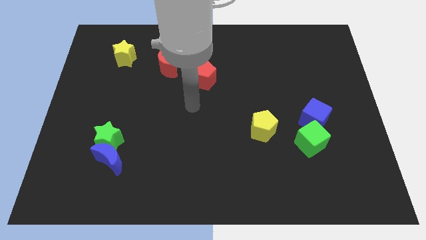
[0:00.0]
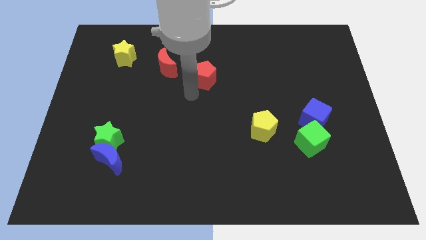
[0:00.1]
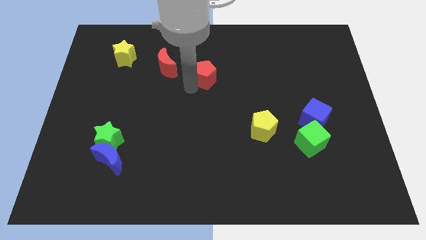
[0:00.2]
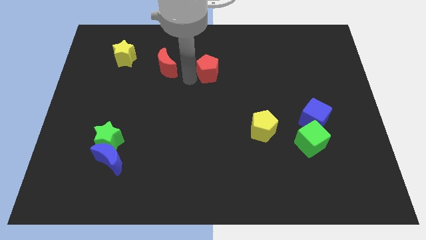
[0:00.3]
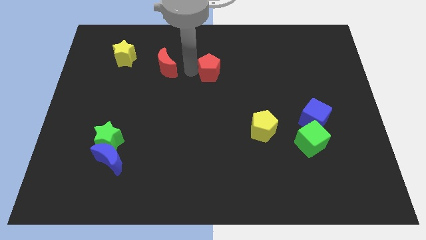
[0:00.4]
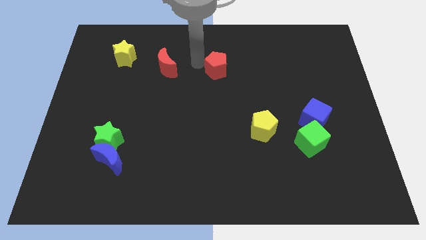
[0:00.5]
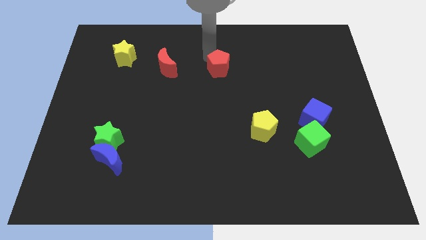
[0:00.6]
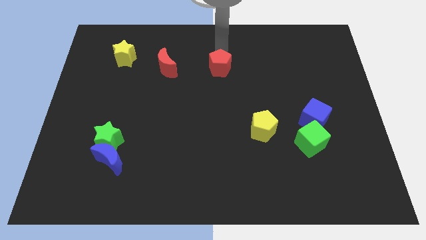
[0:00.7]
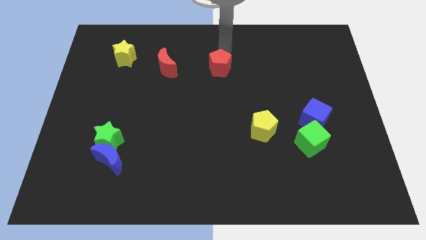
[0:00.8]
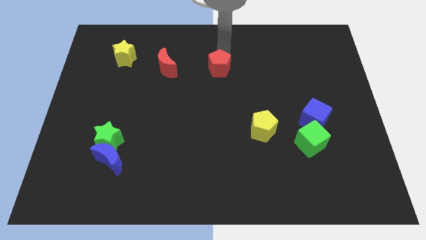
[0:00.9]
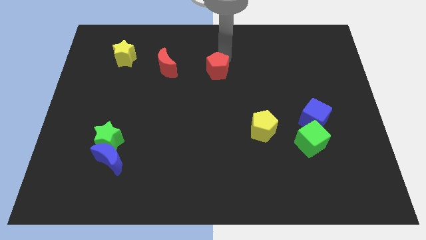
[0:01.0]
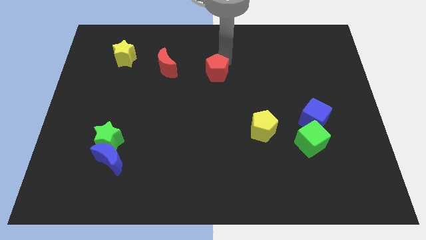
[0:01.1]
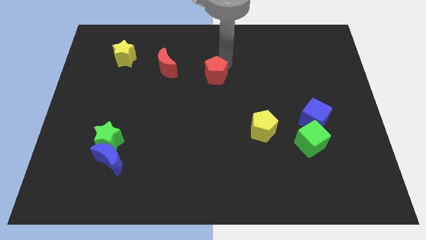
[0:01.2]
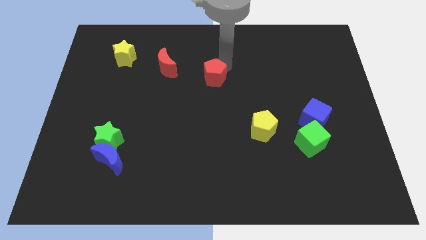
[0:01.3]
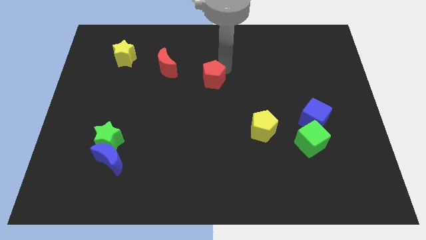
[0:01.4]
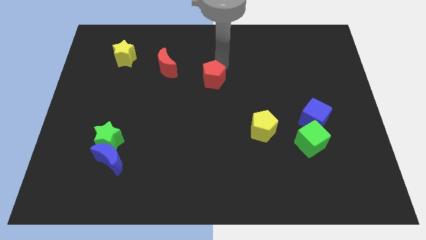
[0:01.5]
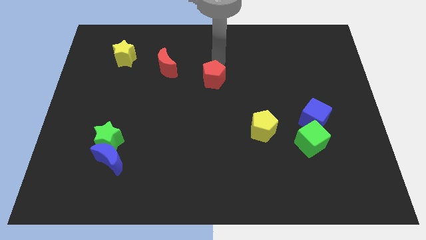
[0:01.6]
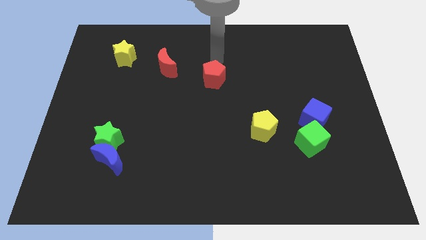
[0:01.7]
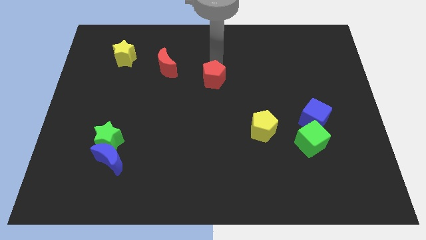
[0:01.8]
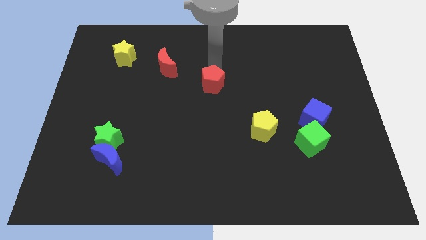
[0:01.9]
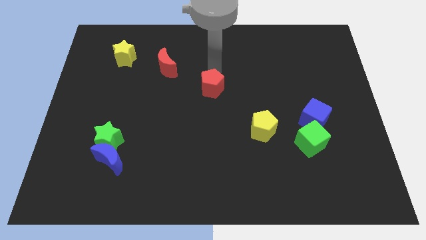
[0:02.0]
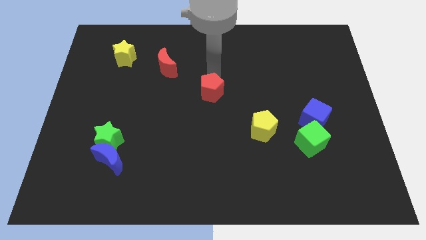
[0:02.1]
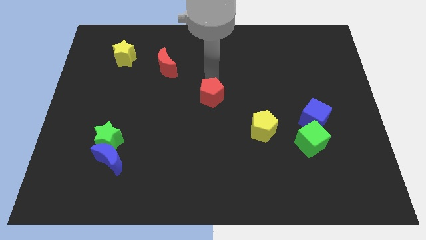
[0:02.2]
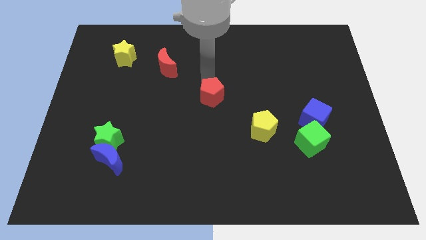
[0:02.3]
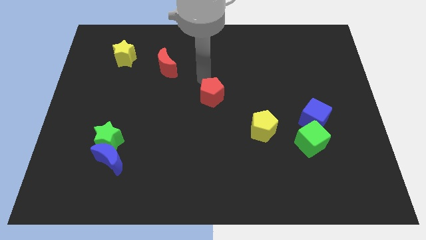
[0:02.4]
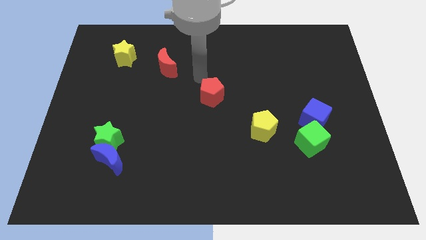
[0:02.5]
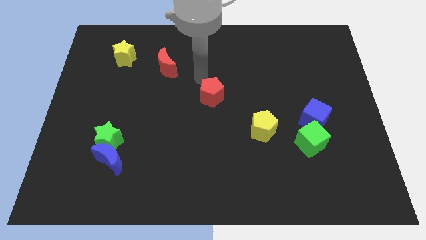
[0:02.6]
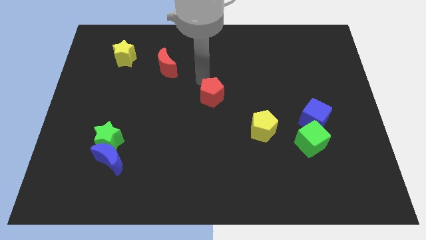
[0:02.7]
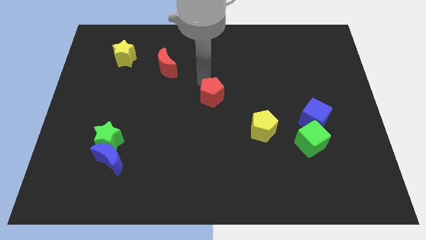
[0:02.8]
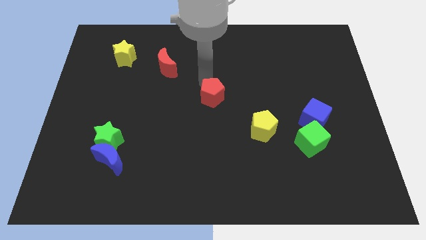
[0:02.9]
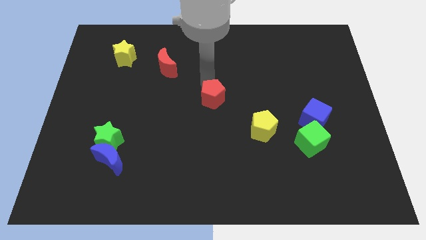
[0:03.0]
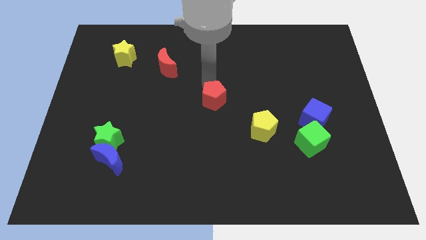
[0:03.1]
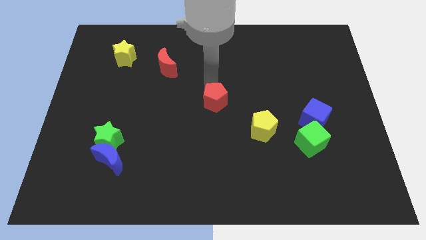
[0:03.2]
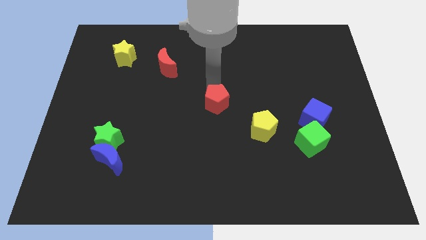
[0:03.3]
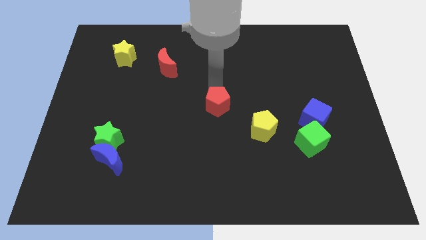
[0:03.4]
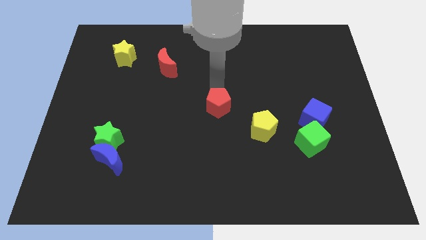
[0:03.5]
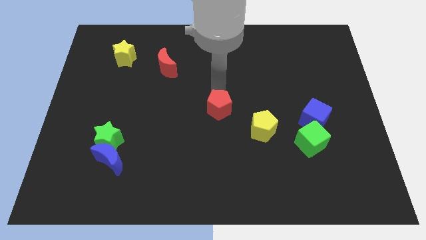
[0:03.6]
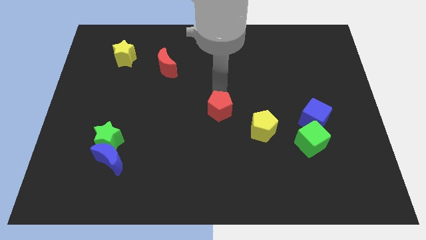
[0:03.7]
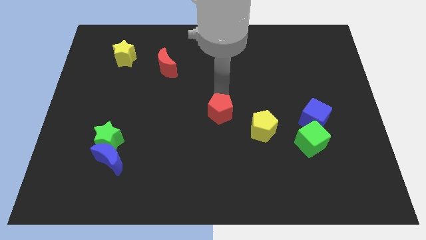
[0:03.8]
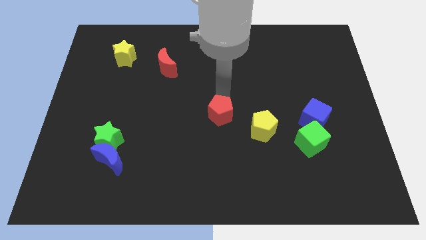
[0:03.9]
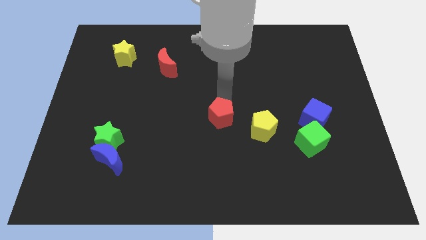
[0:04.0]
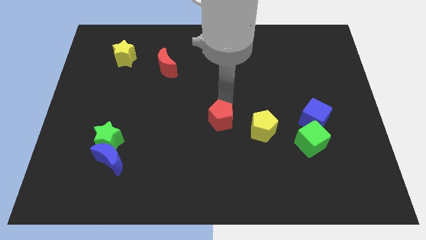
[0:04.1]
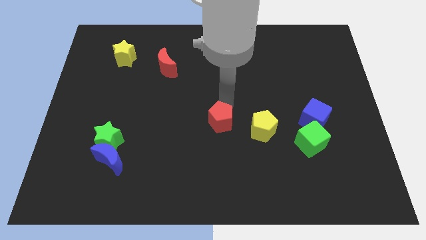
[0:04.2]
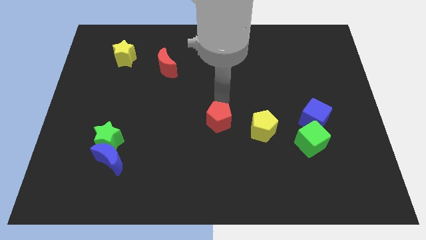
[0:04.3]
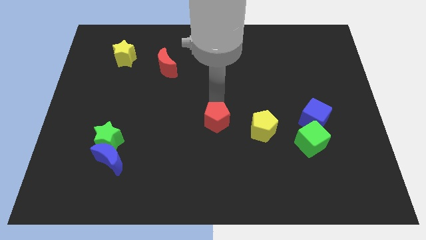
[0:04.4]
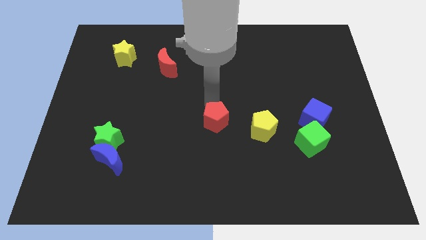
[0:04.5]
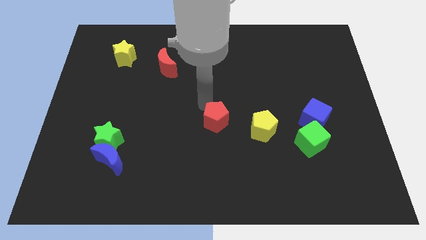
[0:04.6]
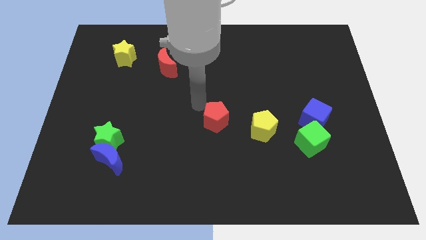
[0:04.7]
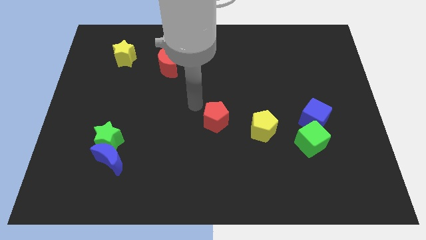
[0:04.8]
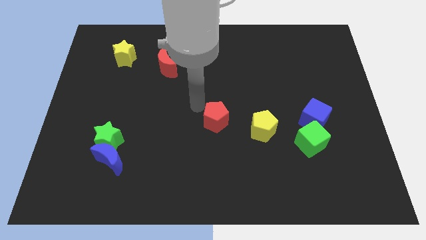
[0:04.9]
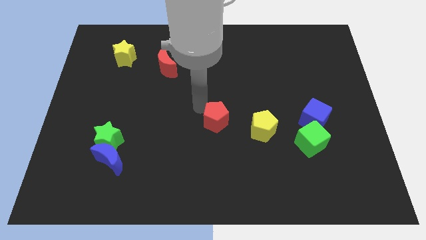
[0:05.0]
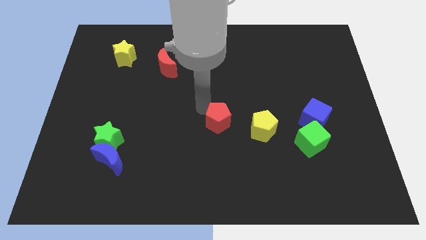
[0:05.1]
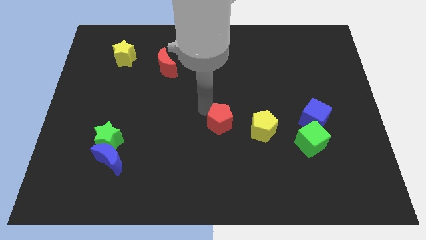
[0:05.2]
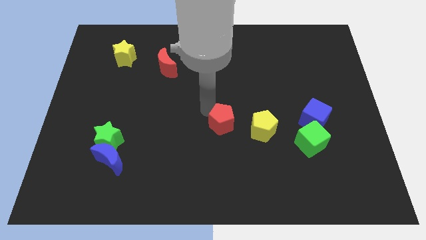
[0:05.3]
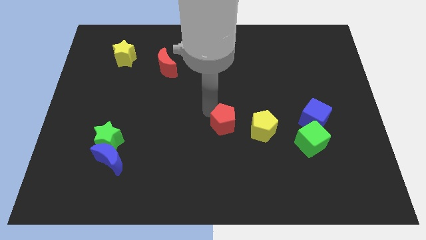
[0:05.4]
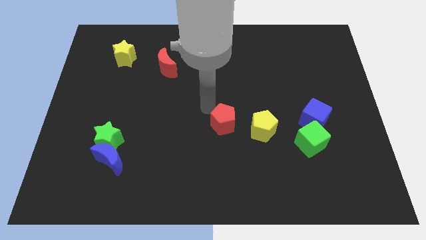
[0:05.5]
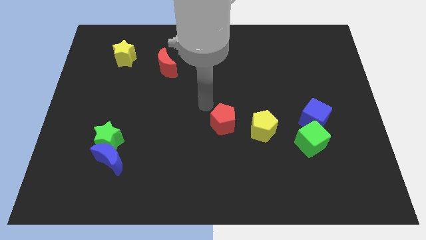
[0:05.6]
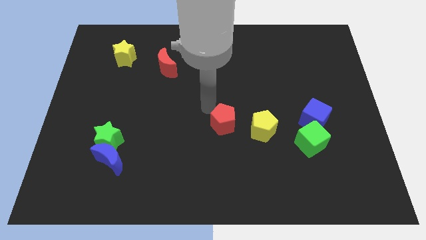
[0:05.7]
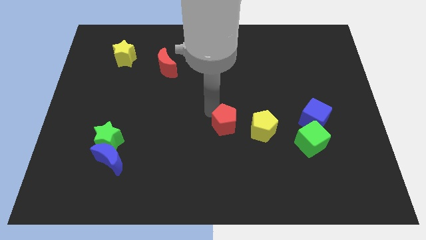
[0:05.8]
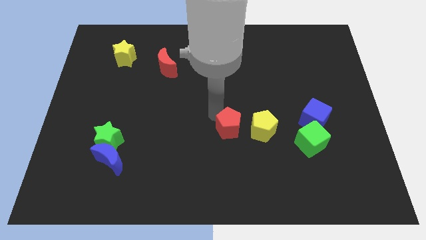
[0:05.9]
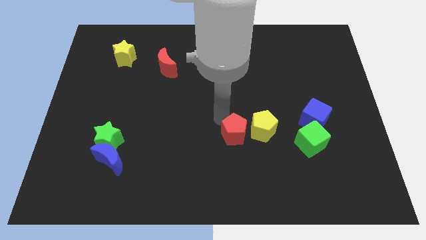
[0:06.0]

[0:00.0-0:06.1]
move the red pentagon to the bottom left side of the yellow pentagon

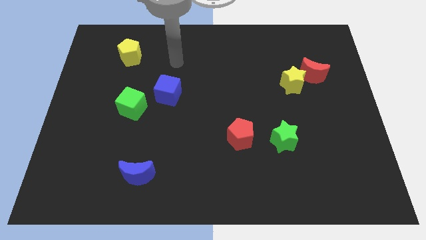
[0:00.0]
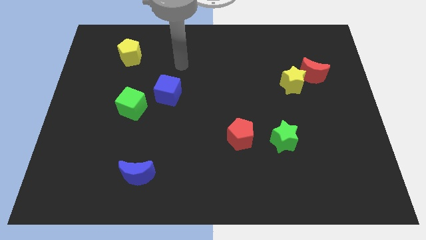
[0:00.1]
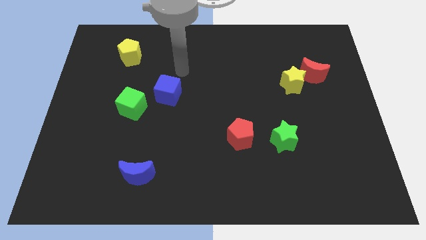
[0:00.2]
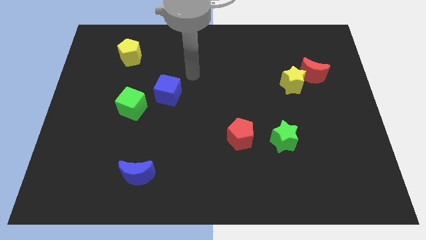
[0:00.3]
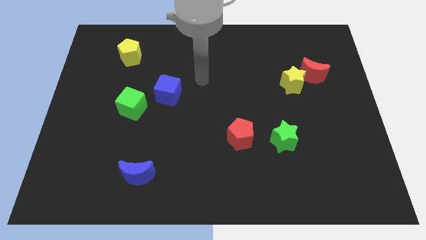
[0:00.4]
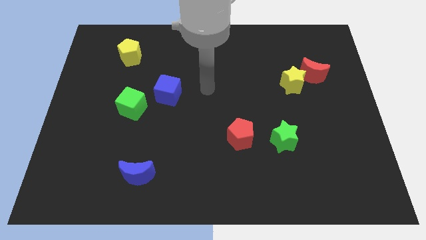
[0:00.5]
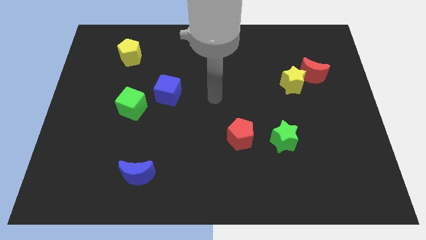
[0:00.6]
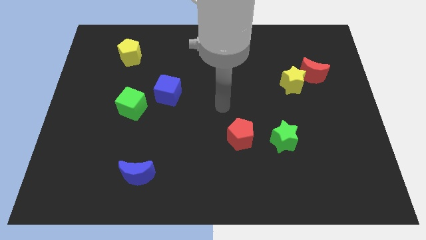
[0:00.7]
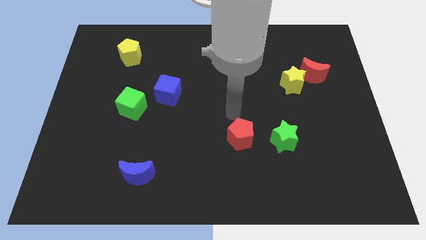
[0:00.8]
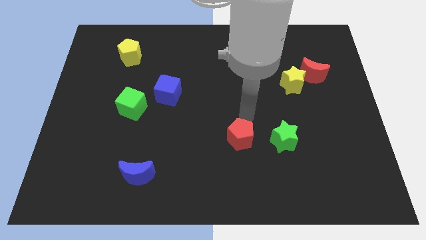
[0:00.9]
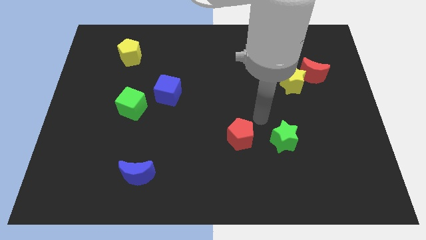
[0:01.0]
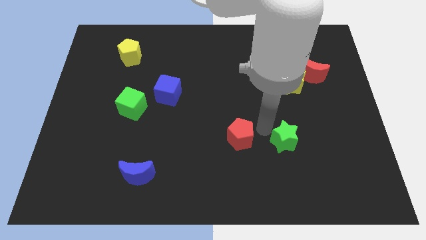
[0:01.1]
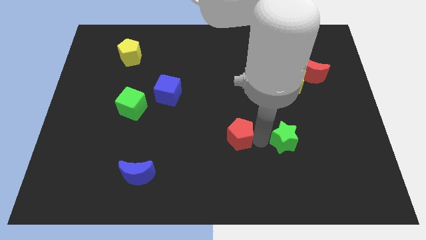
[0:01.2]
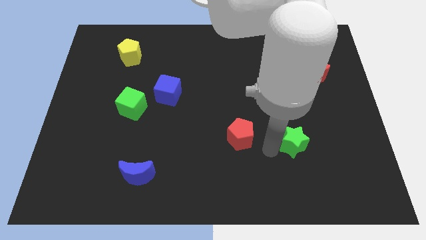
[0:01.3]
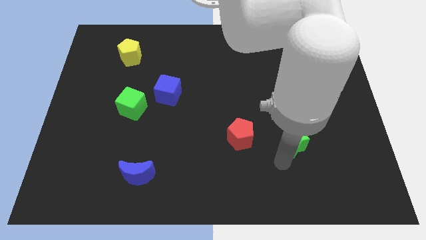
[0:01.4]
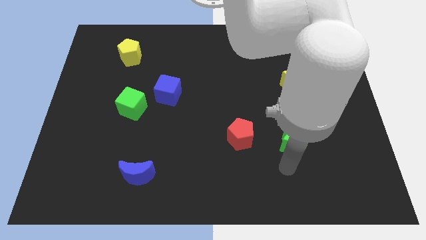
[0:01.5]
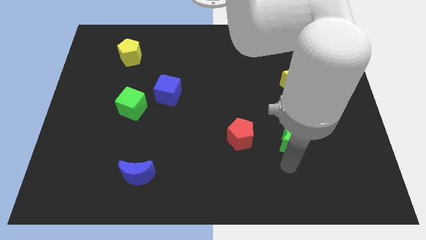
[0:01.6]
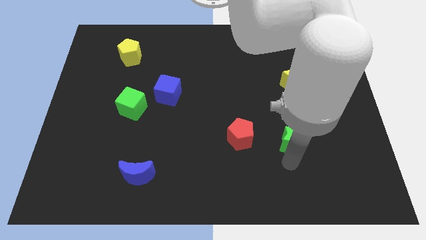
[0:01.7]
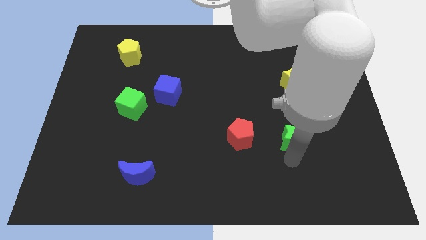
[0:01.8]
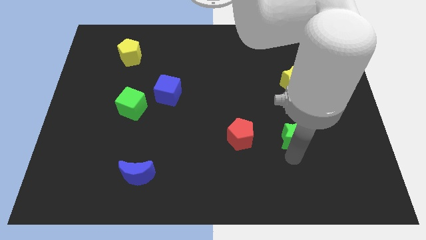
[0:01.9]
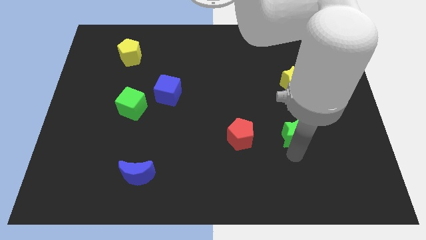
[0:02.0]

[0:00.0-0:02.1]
put the green star to the bottom of the yellow star
